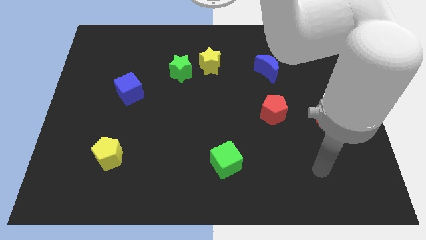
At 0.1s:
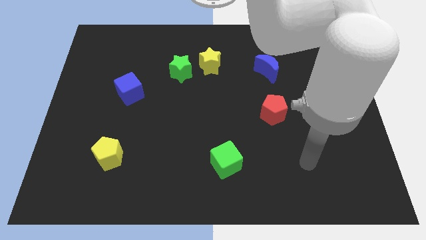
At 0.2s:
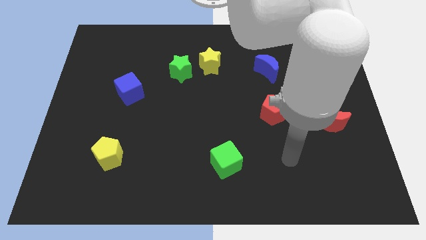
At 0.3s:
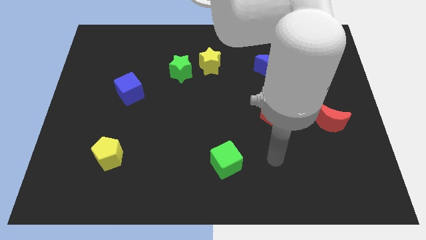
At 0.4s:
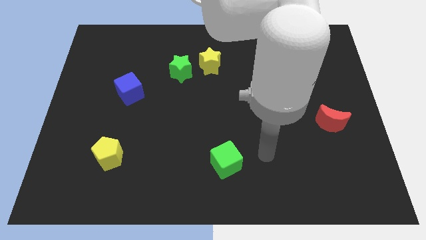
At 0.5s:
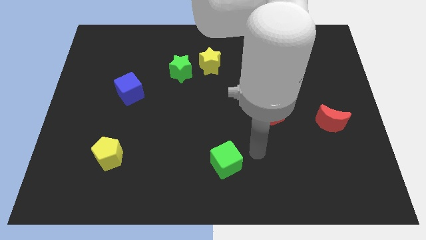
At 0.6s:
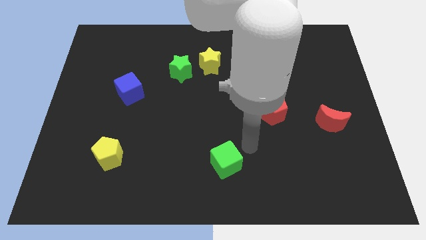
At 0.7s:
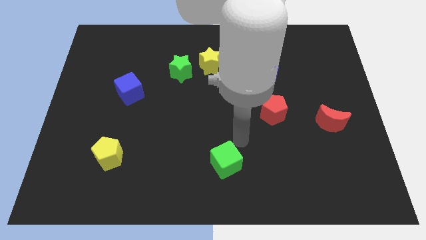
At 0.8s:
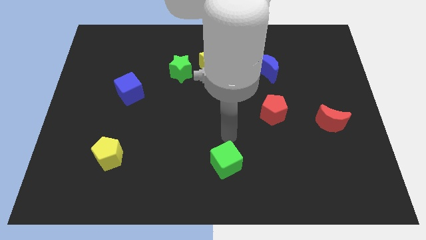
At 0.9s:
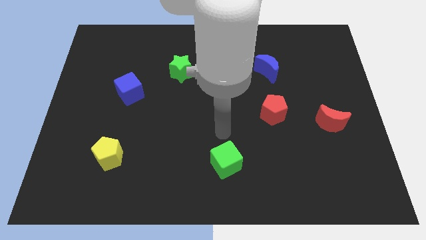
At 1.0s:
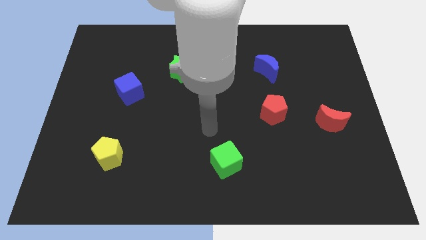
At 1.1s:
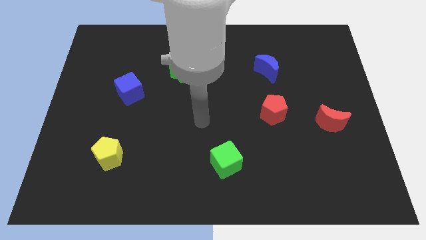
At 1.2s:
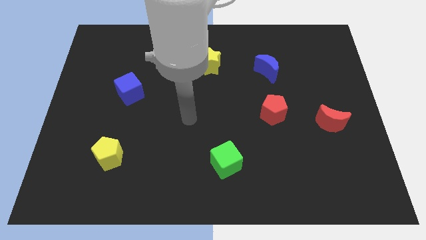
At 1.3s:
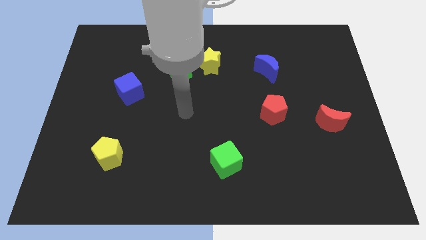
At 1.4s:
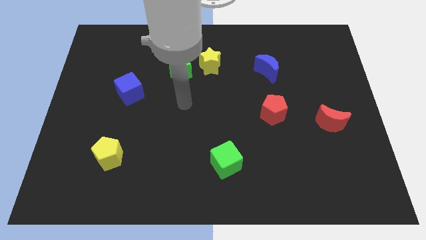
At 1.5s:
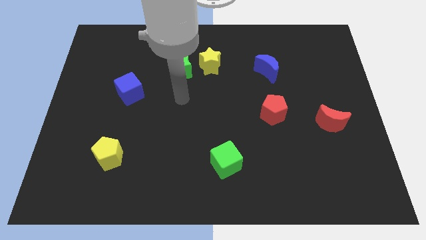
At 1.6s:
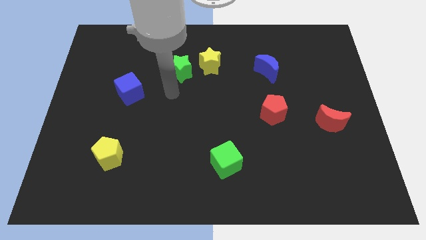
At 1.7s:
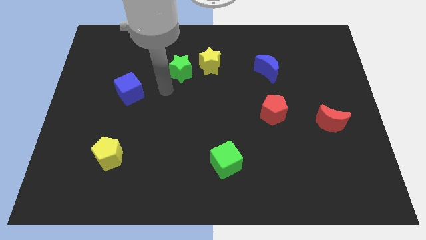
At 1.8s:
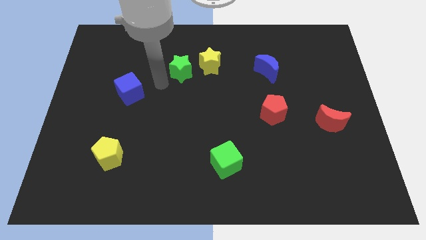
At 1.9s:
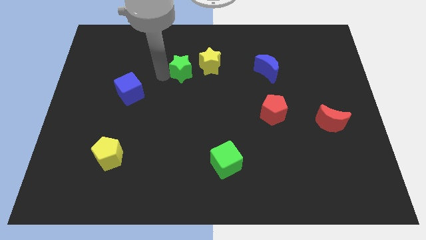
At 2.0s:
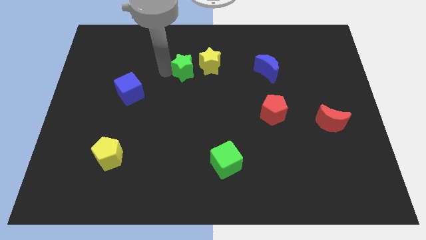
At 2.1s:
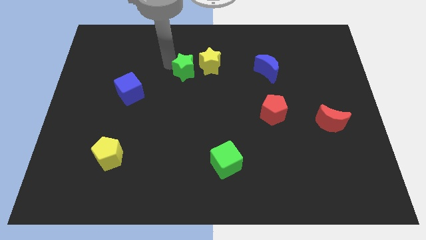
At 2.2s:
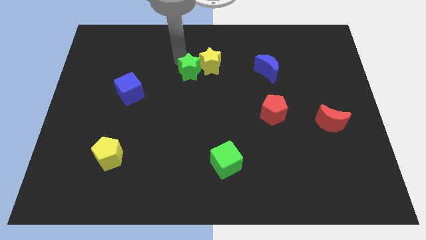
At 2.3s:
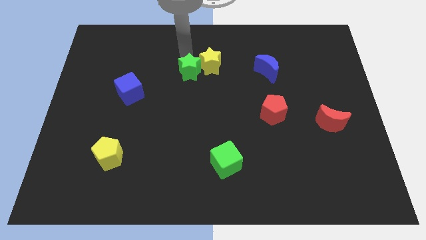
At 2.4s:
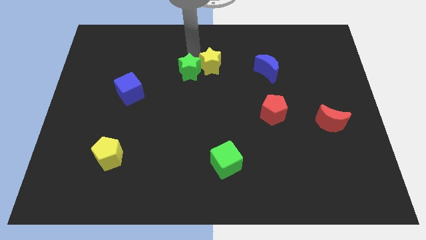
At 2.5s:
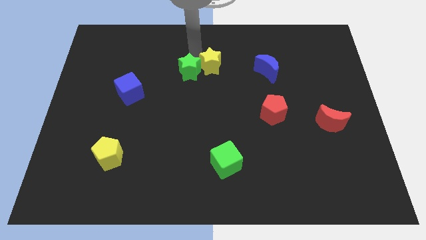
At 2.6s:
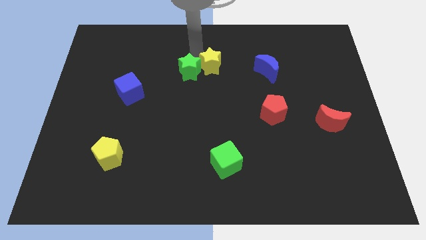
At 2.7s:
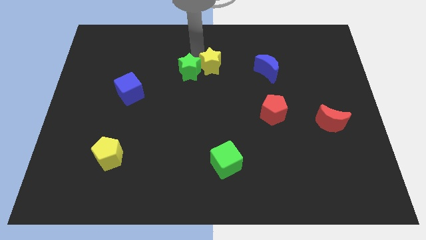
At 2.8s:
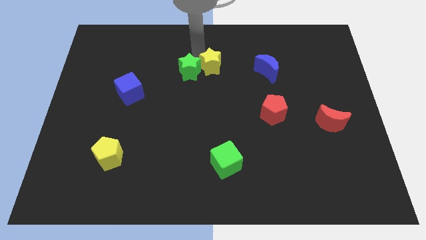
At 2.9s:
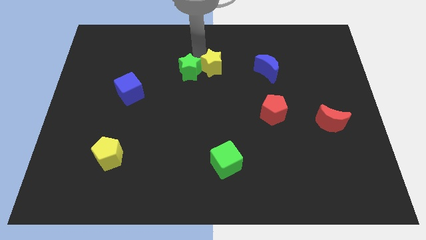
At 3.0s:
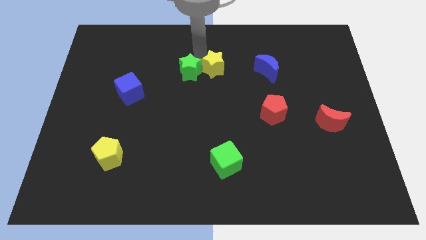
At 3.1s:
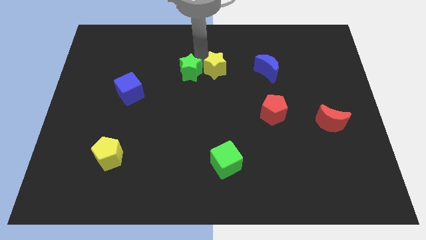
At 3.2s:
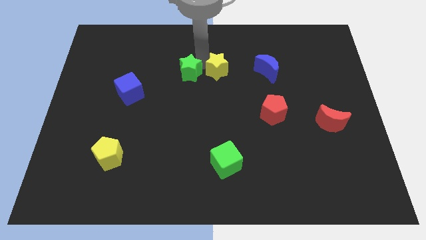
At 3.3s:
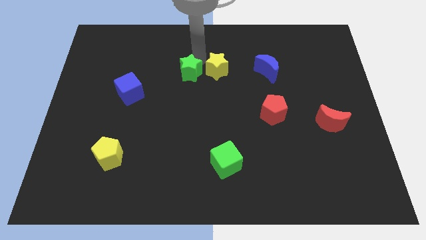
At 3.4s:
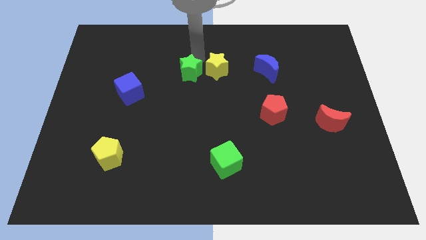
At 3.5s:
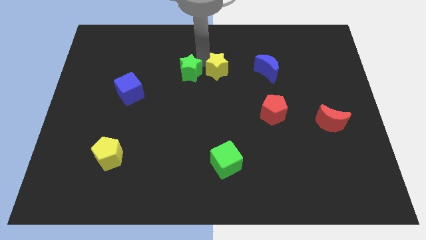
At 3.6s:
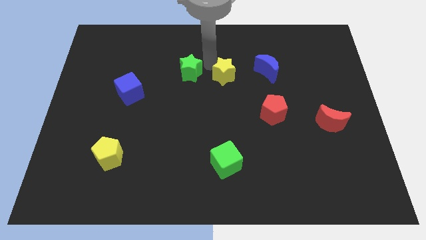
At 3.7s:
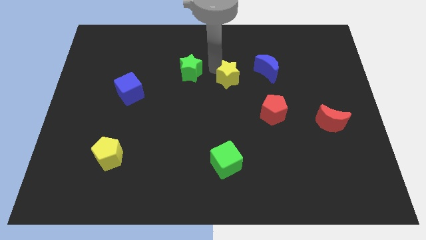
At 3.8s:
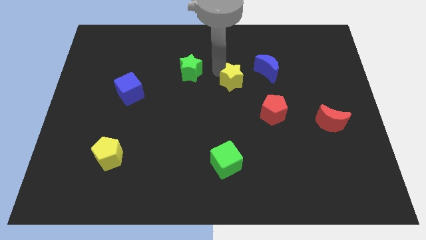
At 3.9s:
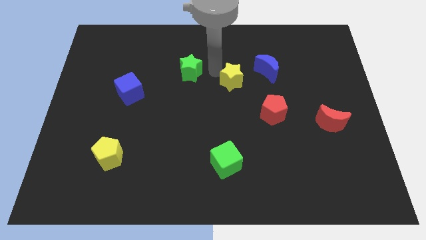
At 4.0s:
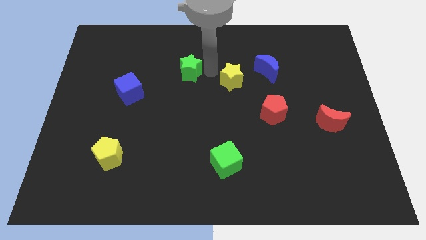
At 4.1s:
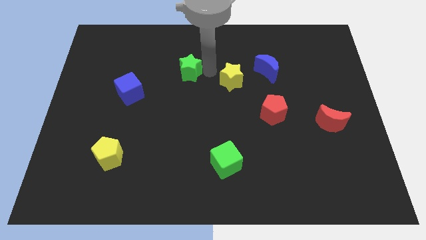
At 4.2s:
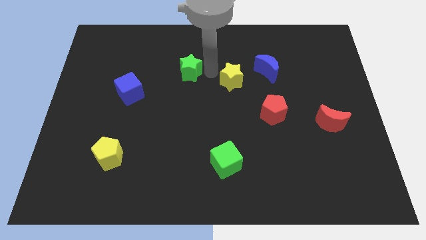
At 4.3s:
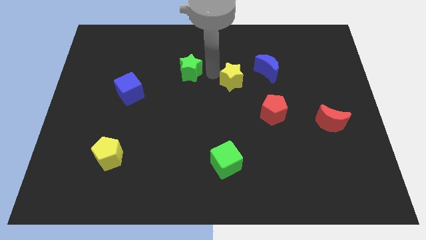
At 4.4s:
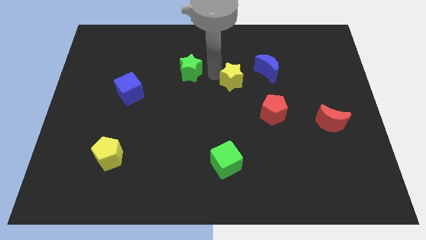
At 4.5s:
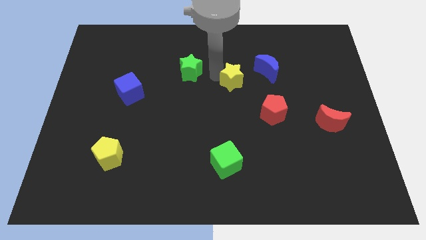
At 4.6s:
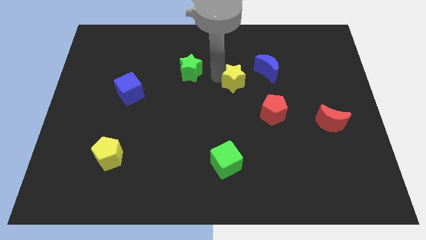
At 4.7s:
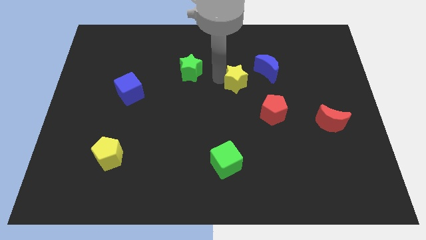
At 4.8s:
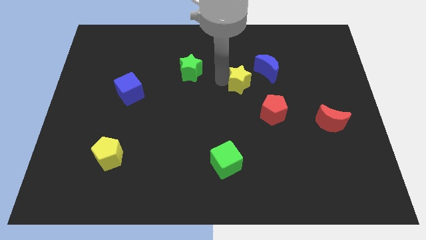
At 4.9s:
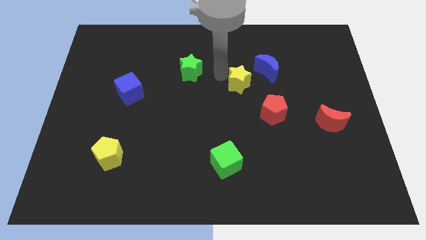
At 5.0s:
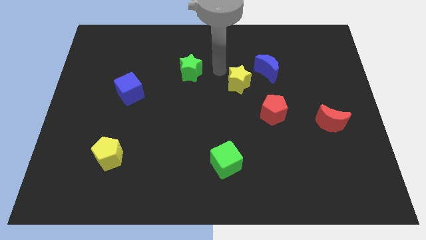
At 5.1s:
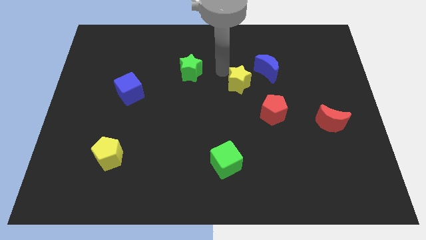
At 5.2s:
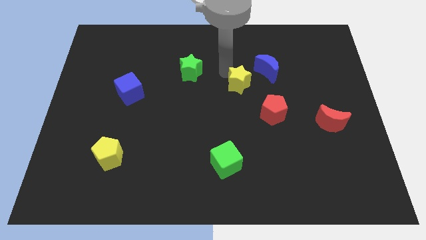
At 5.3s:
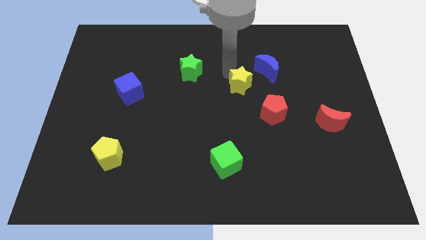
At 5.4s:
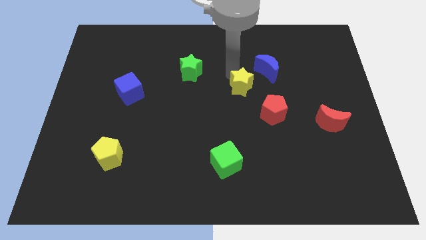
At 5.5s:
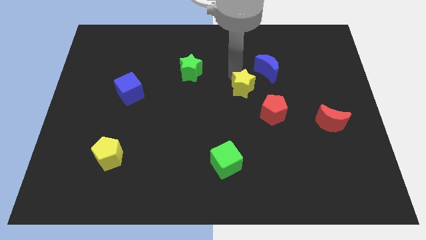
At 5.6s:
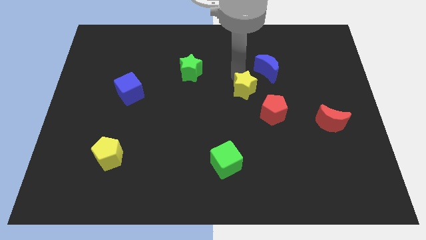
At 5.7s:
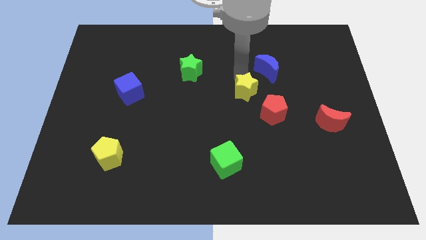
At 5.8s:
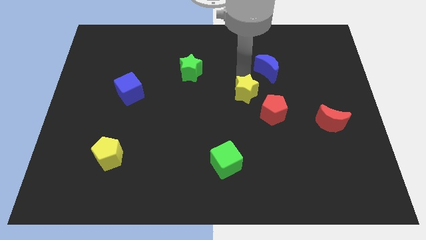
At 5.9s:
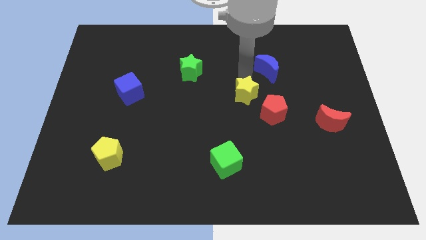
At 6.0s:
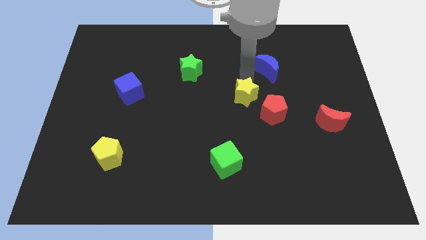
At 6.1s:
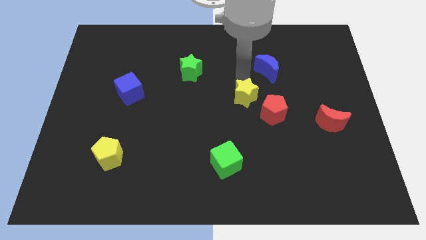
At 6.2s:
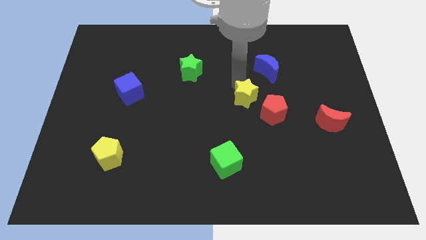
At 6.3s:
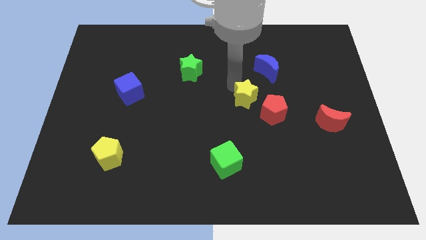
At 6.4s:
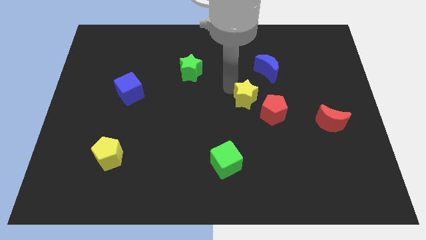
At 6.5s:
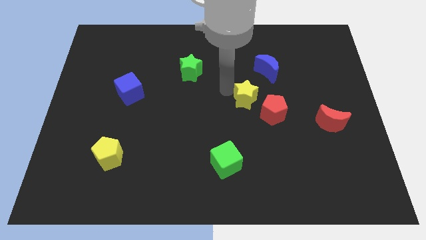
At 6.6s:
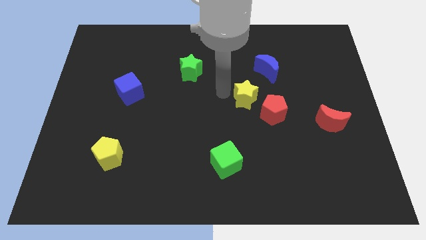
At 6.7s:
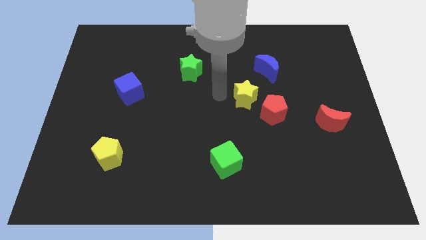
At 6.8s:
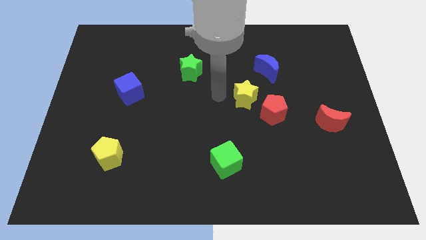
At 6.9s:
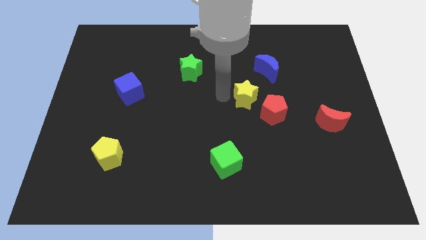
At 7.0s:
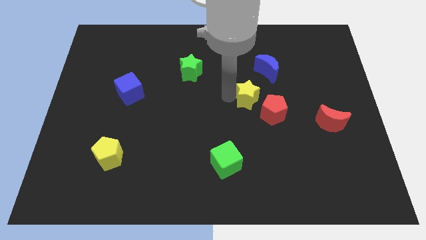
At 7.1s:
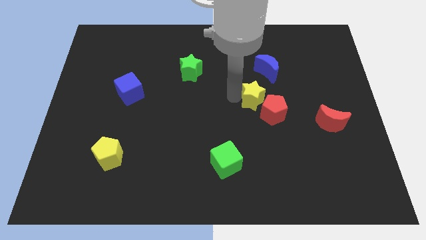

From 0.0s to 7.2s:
slide the yellow star close to the red pentagon

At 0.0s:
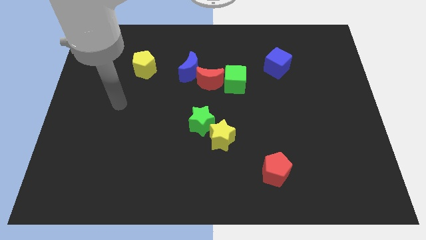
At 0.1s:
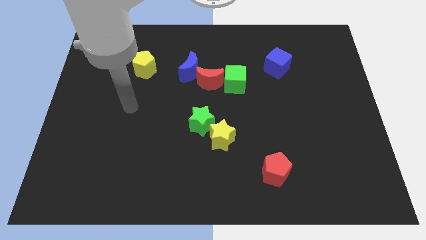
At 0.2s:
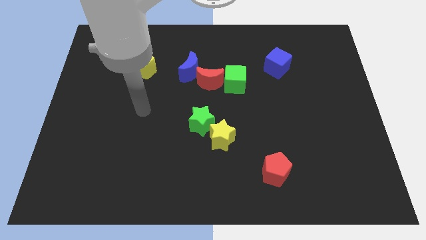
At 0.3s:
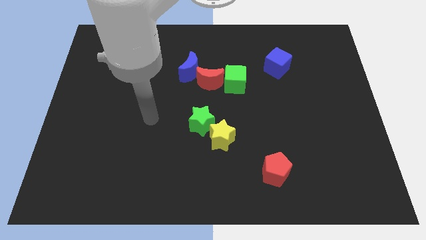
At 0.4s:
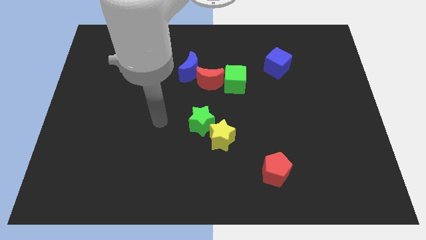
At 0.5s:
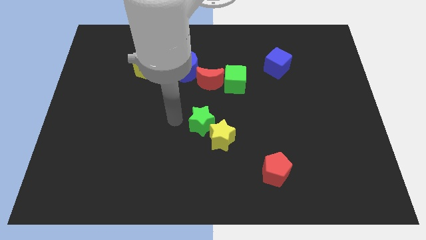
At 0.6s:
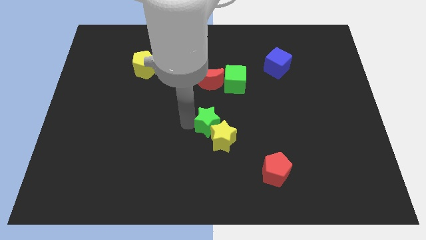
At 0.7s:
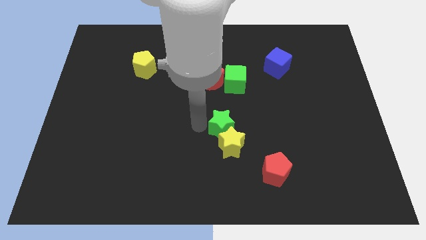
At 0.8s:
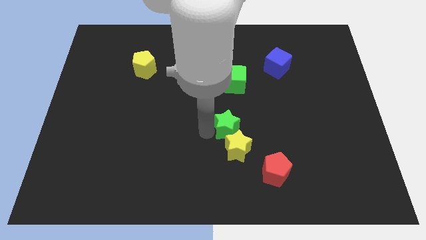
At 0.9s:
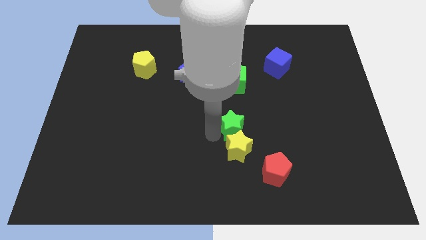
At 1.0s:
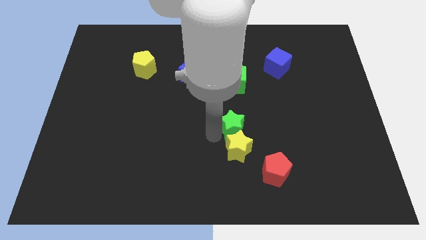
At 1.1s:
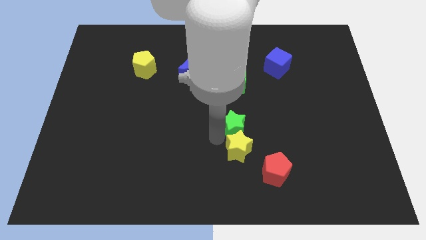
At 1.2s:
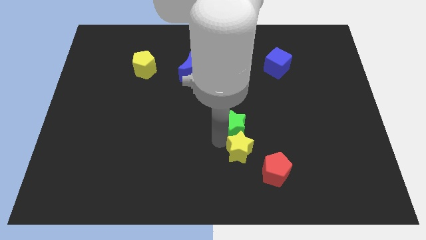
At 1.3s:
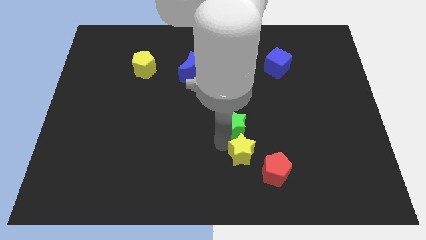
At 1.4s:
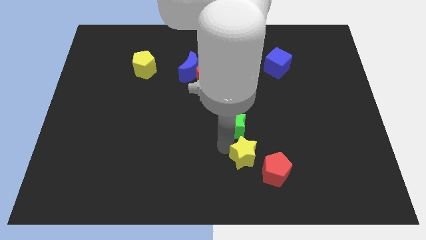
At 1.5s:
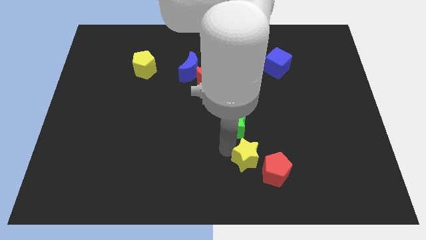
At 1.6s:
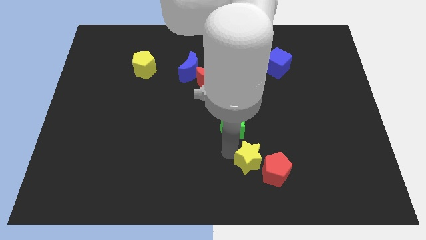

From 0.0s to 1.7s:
push the yellow star towards the red pentagon
